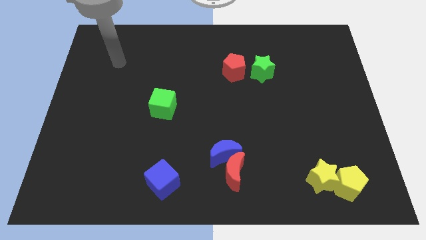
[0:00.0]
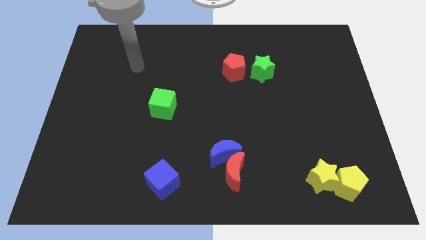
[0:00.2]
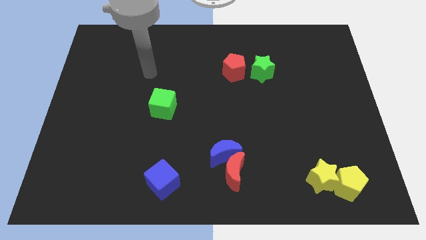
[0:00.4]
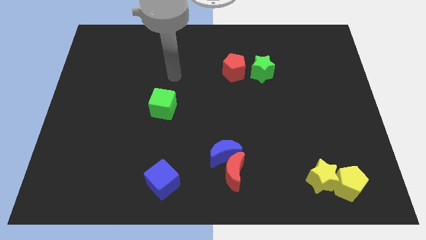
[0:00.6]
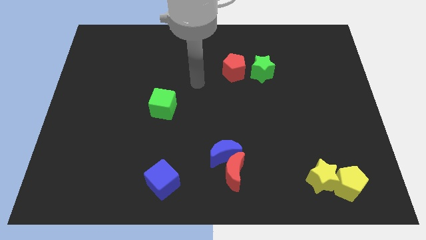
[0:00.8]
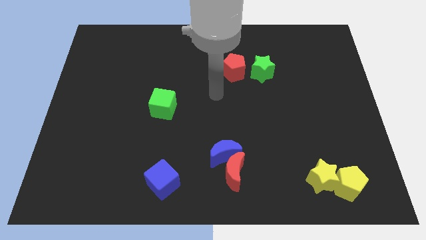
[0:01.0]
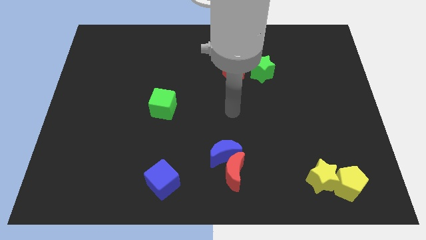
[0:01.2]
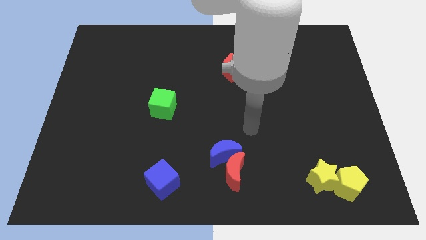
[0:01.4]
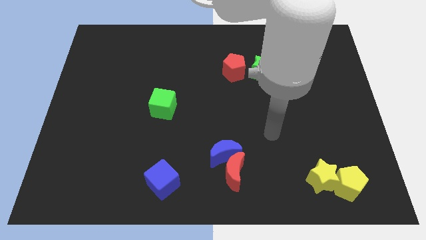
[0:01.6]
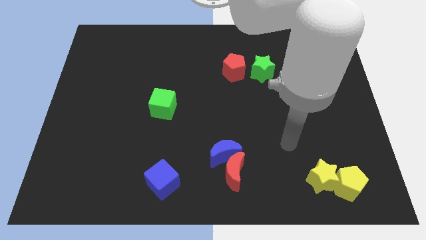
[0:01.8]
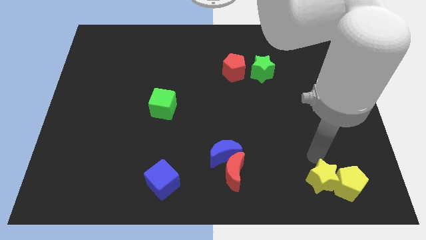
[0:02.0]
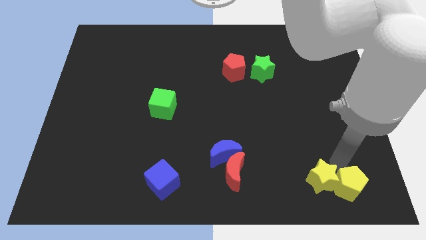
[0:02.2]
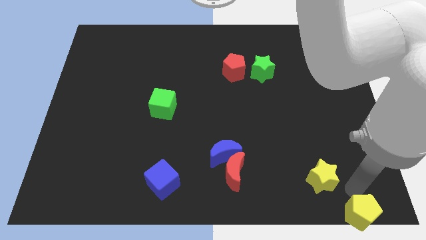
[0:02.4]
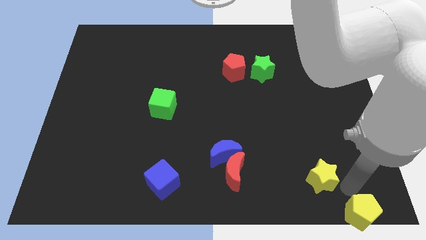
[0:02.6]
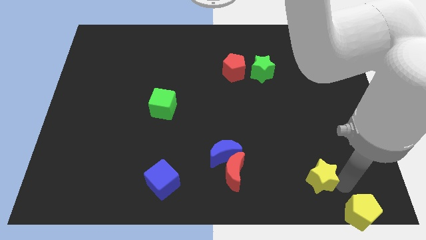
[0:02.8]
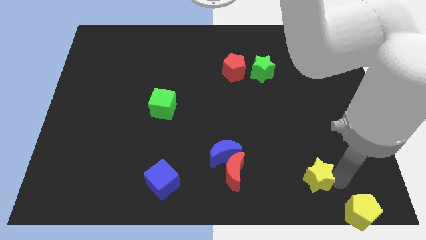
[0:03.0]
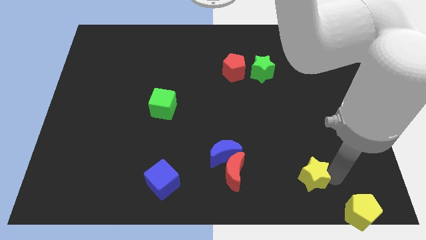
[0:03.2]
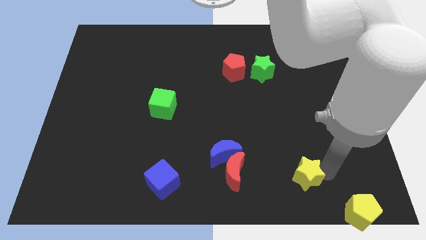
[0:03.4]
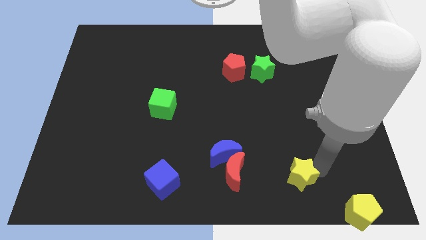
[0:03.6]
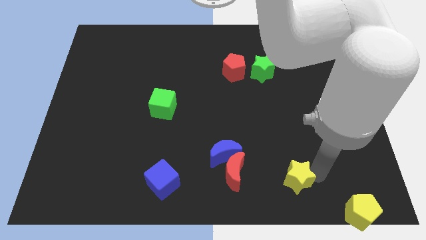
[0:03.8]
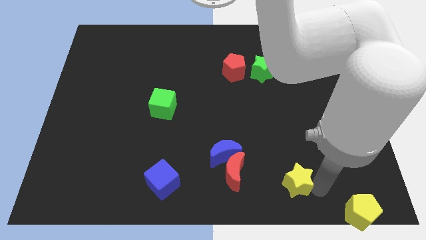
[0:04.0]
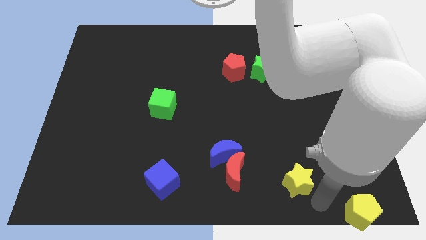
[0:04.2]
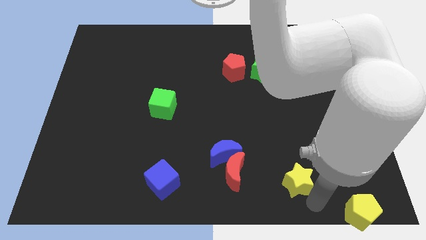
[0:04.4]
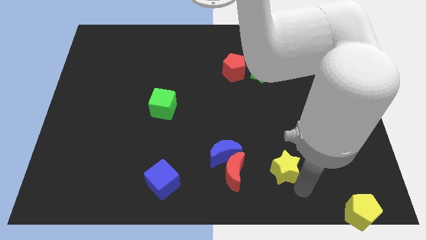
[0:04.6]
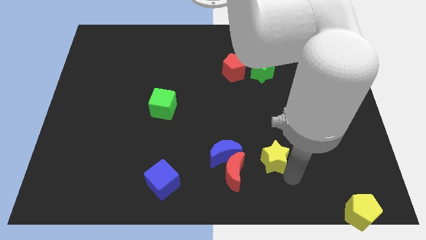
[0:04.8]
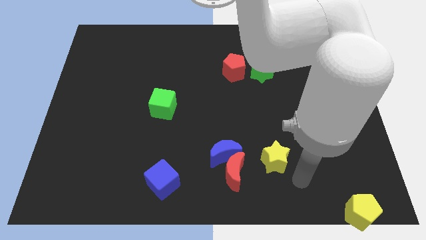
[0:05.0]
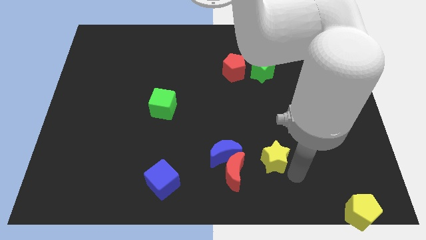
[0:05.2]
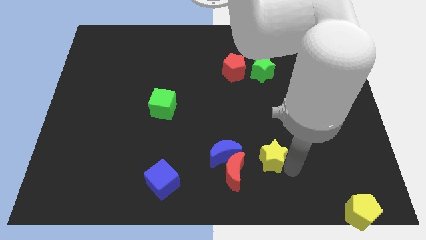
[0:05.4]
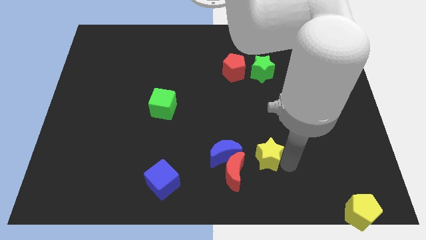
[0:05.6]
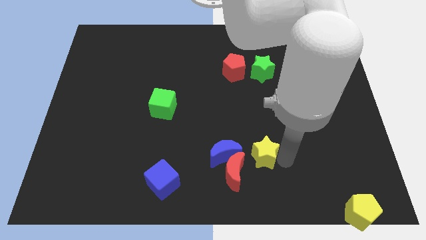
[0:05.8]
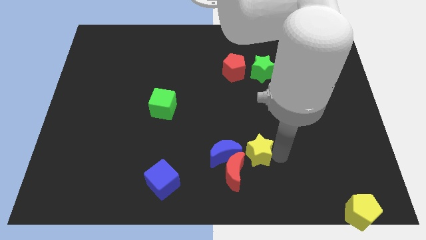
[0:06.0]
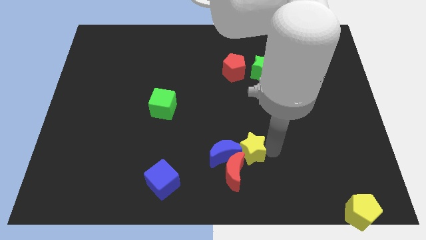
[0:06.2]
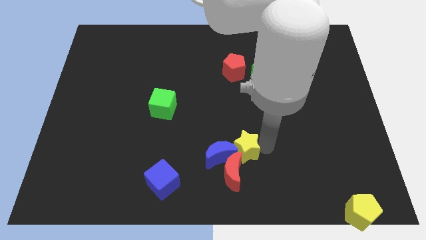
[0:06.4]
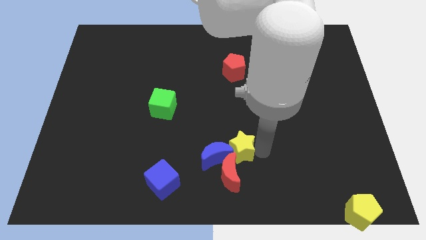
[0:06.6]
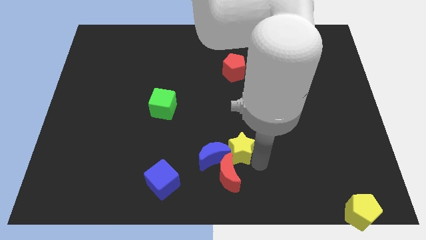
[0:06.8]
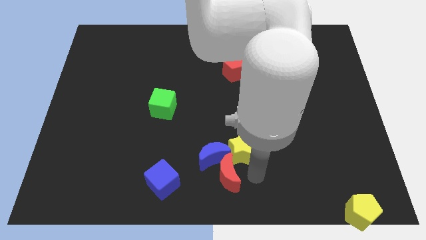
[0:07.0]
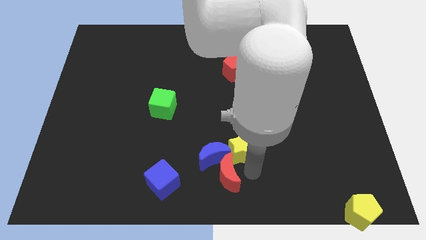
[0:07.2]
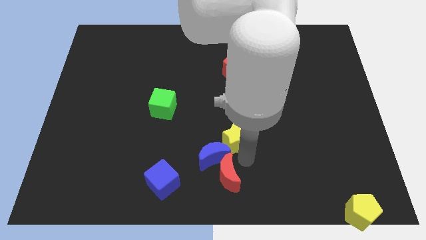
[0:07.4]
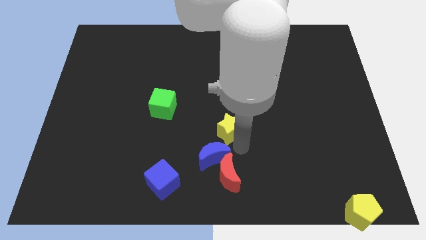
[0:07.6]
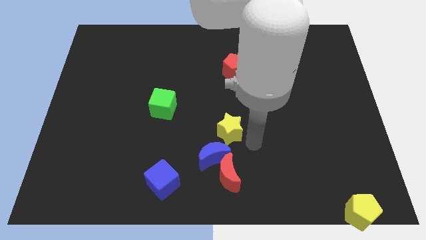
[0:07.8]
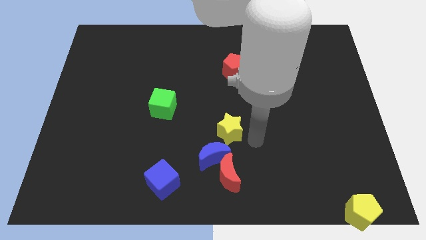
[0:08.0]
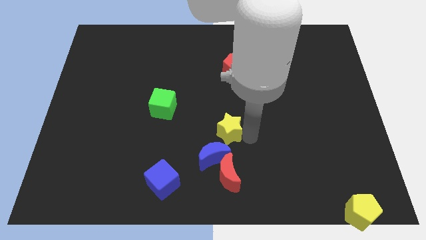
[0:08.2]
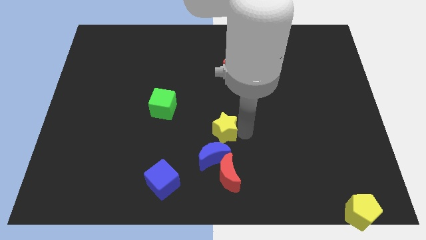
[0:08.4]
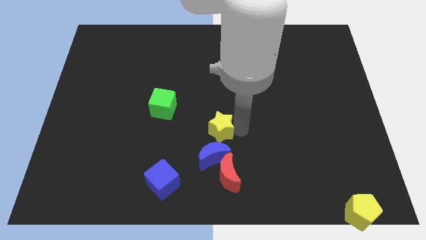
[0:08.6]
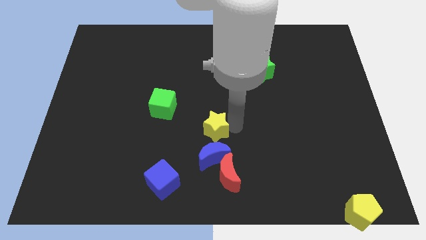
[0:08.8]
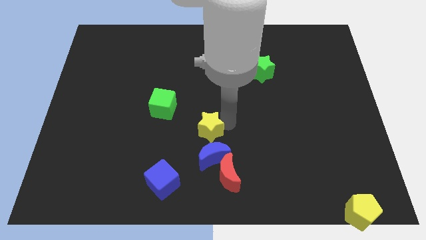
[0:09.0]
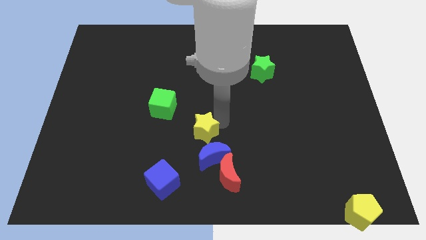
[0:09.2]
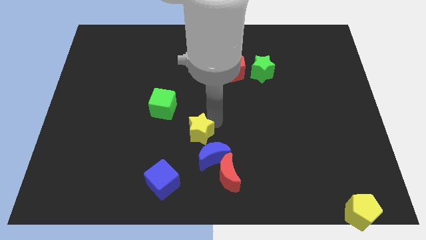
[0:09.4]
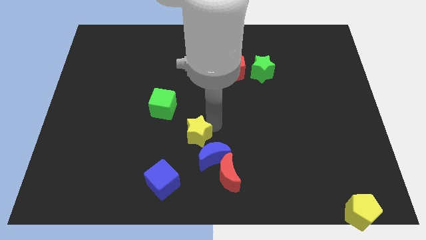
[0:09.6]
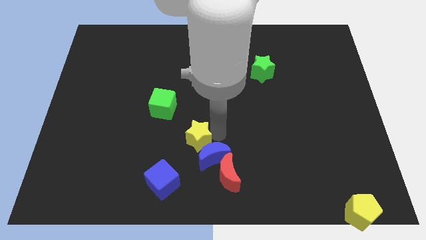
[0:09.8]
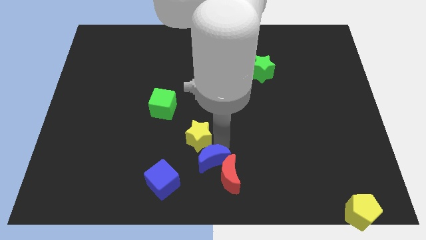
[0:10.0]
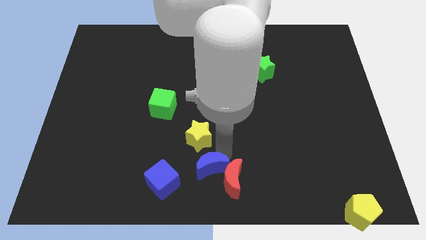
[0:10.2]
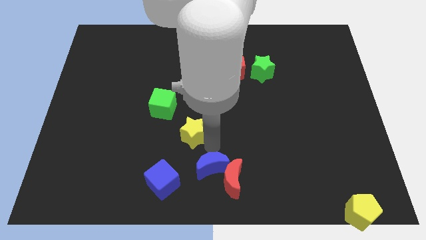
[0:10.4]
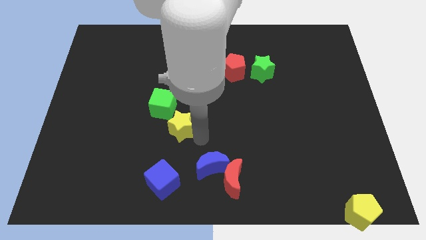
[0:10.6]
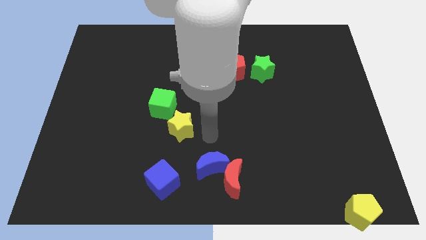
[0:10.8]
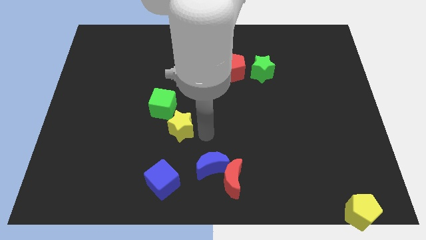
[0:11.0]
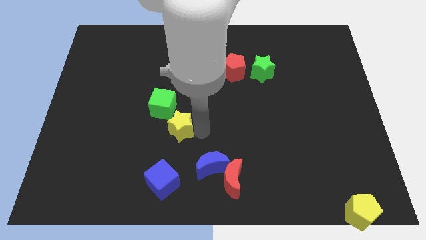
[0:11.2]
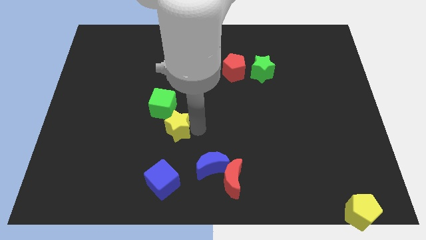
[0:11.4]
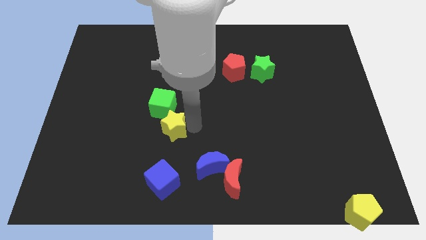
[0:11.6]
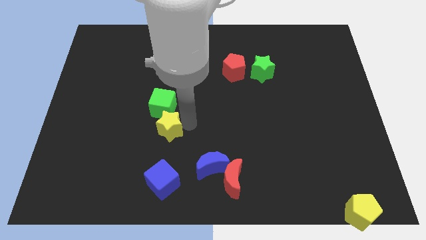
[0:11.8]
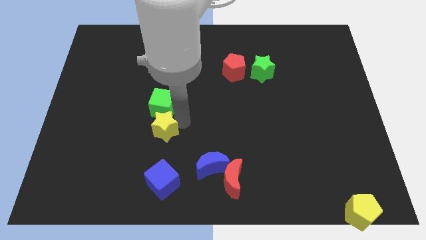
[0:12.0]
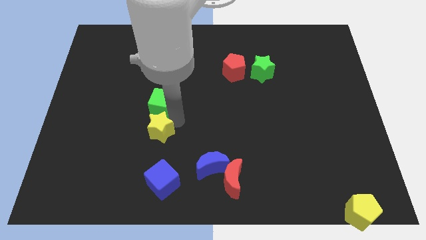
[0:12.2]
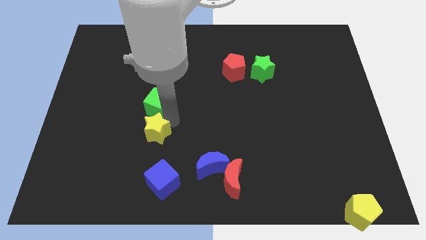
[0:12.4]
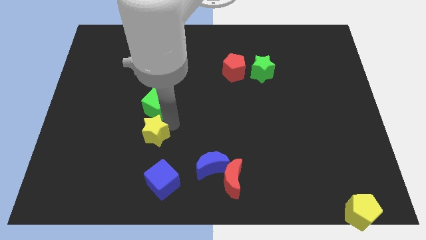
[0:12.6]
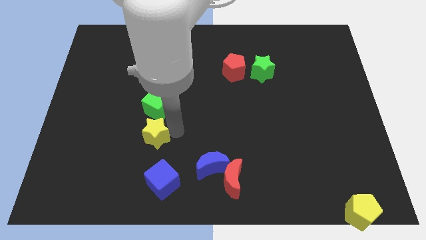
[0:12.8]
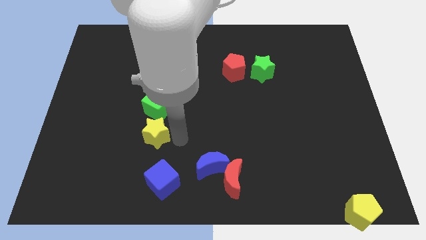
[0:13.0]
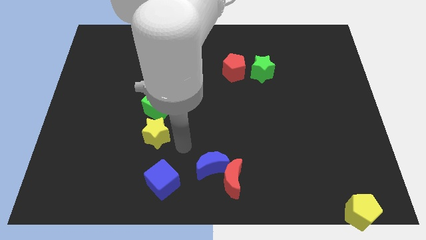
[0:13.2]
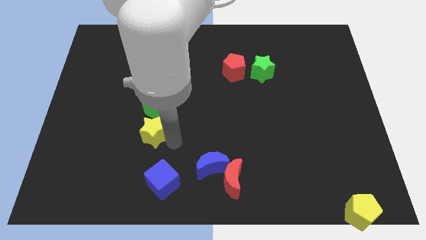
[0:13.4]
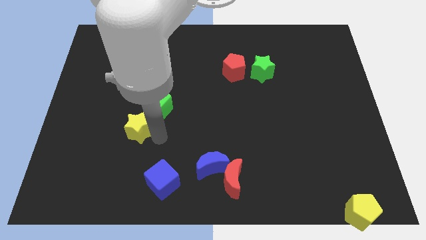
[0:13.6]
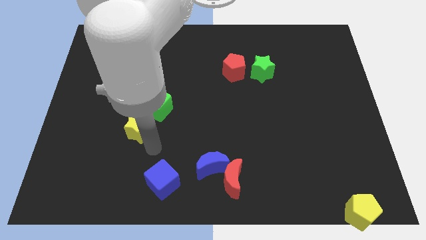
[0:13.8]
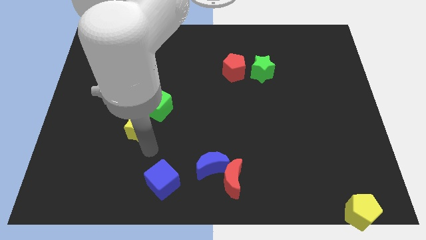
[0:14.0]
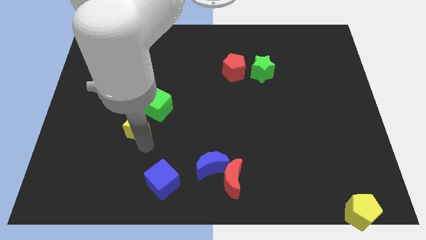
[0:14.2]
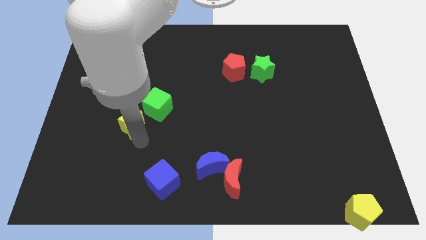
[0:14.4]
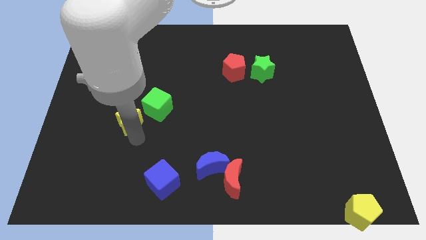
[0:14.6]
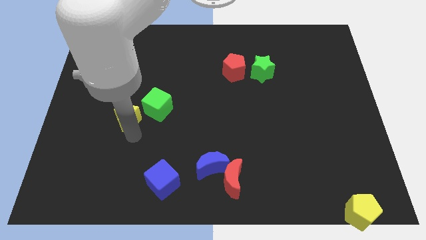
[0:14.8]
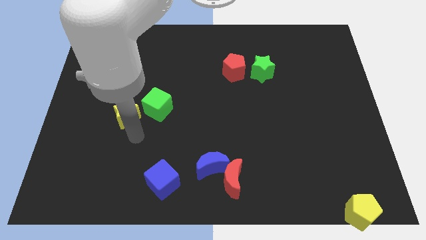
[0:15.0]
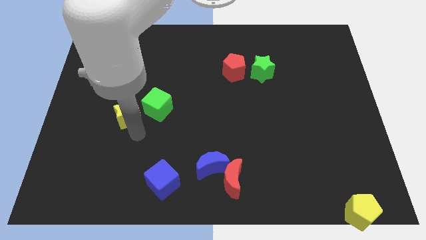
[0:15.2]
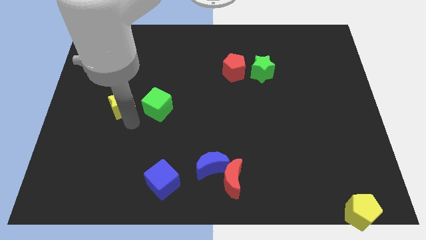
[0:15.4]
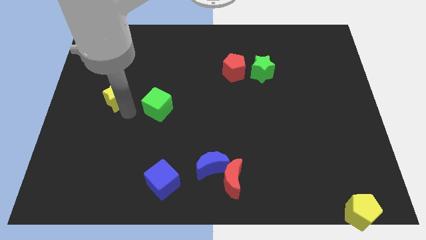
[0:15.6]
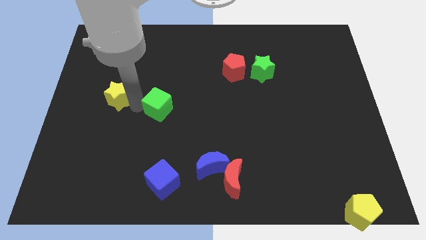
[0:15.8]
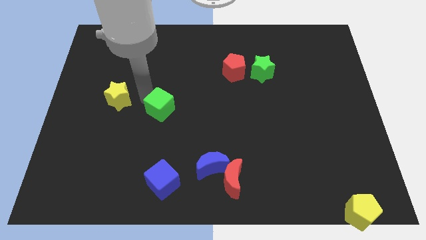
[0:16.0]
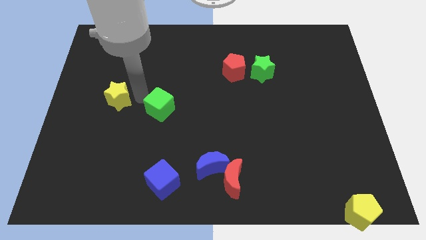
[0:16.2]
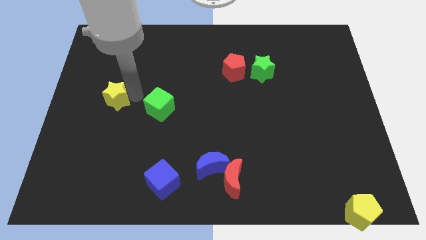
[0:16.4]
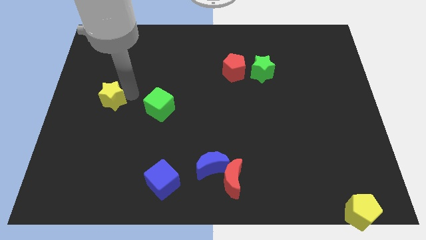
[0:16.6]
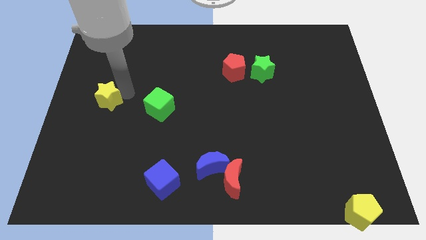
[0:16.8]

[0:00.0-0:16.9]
push the yellow star to the left side
